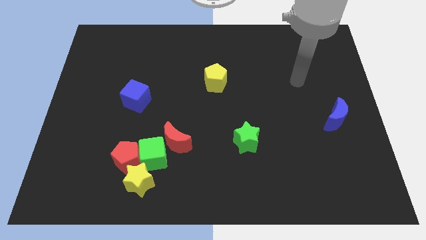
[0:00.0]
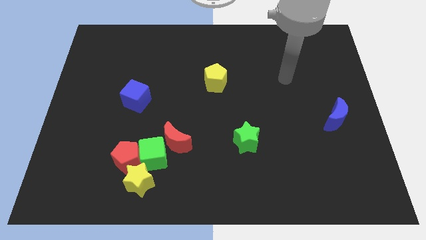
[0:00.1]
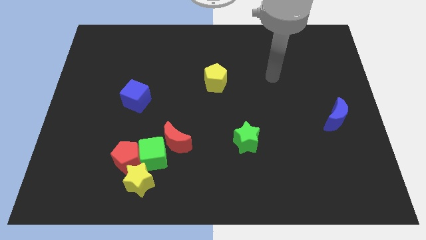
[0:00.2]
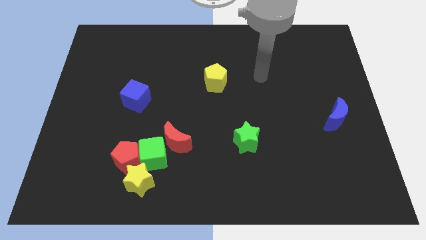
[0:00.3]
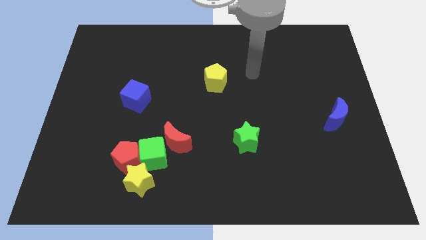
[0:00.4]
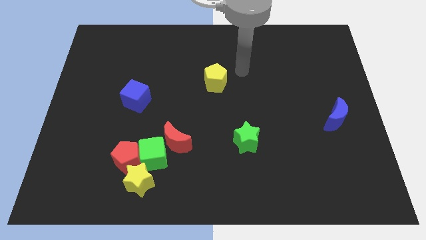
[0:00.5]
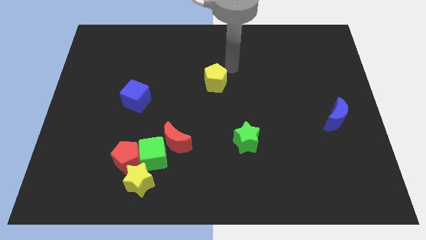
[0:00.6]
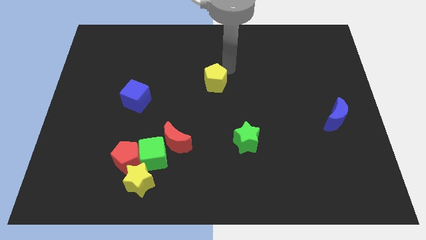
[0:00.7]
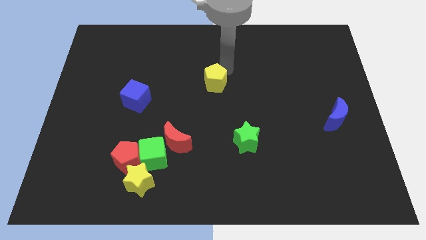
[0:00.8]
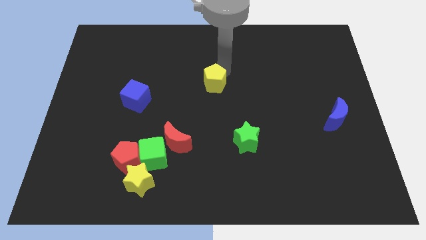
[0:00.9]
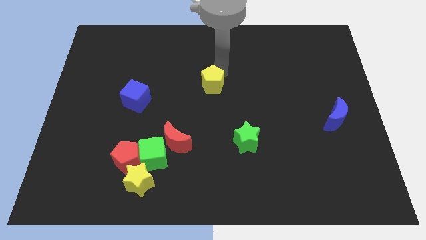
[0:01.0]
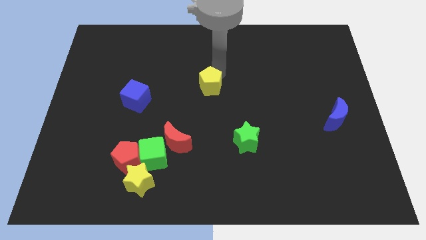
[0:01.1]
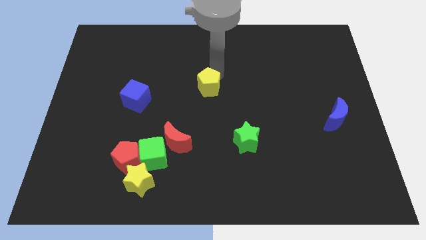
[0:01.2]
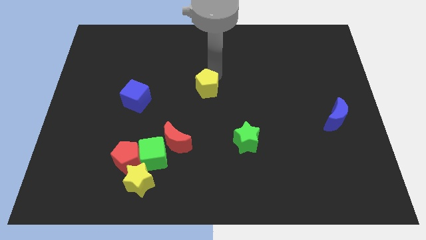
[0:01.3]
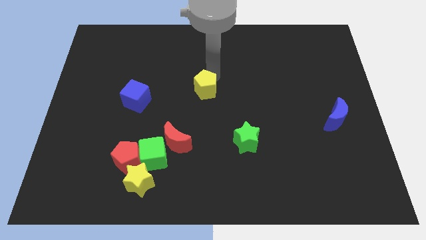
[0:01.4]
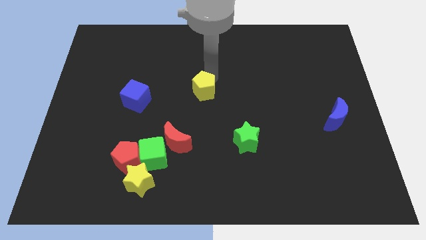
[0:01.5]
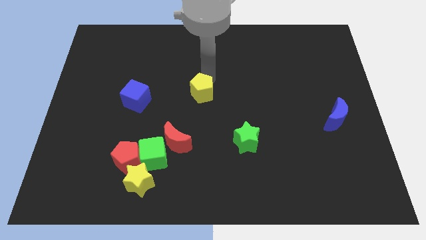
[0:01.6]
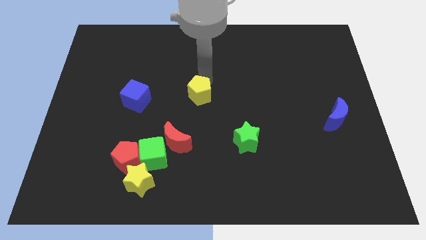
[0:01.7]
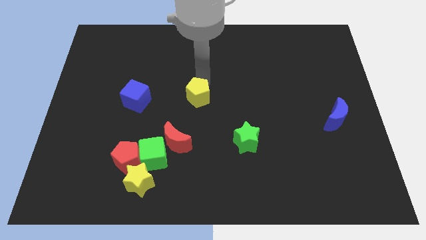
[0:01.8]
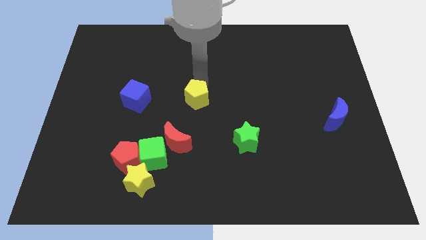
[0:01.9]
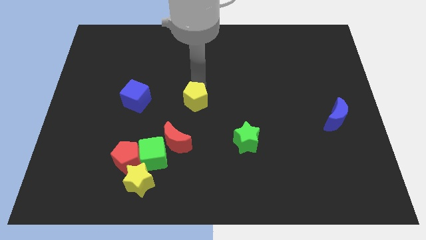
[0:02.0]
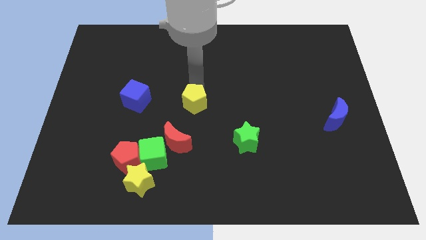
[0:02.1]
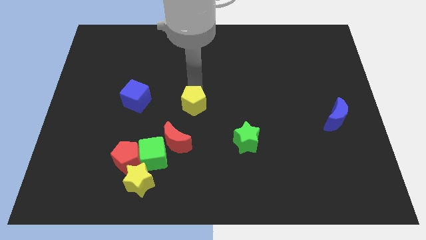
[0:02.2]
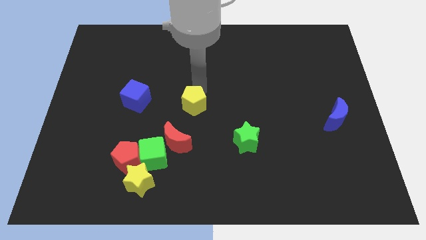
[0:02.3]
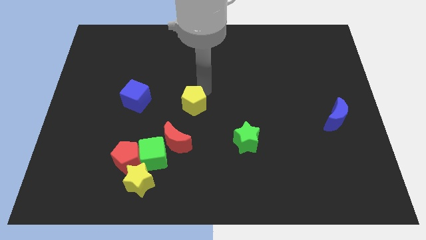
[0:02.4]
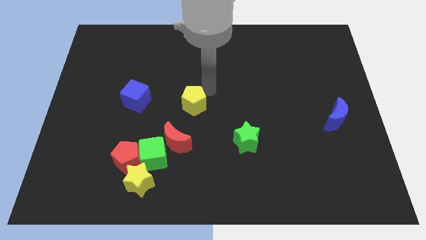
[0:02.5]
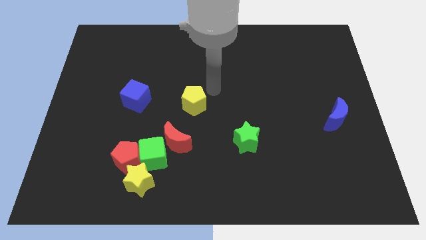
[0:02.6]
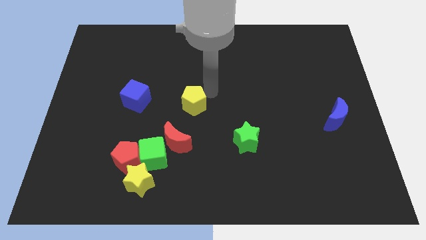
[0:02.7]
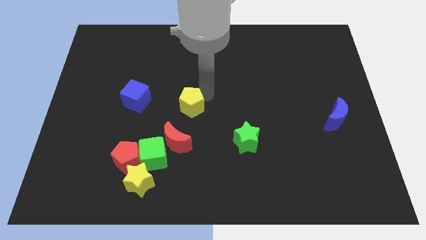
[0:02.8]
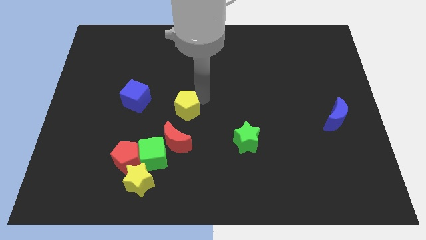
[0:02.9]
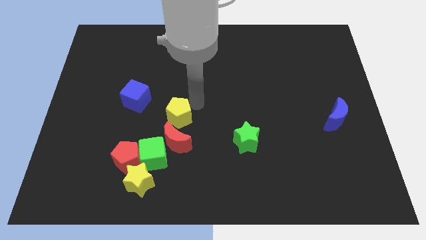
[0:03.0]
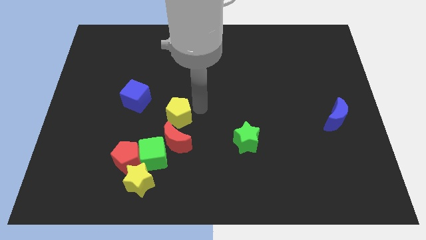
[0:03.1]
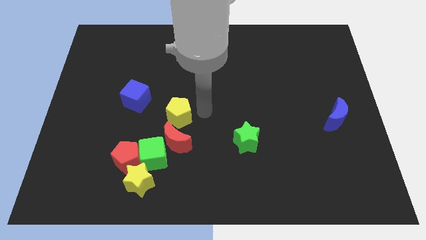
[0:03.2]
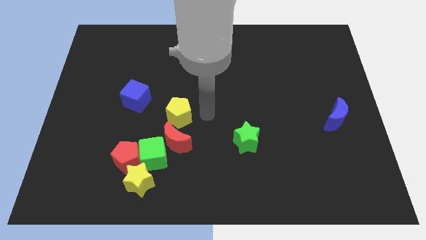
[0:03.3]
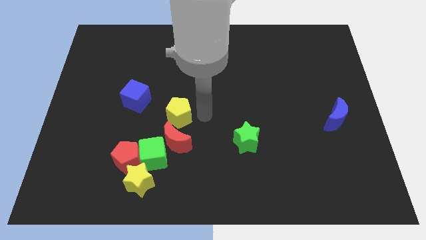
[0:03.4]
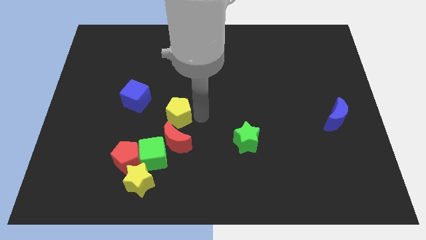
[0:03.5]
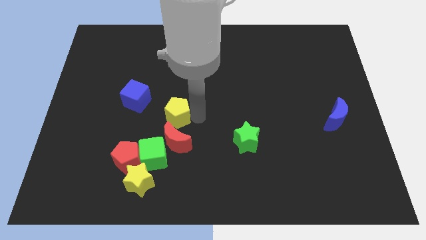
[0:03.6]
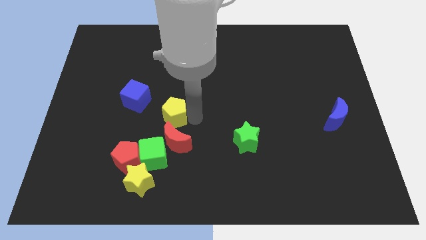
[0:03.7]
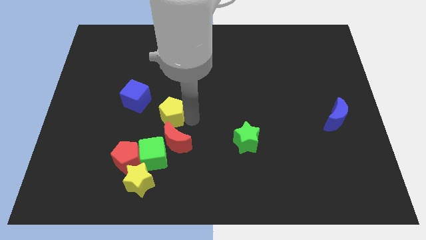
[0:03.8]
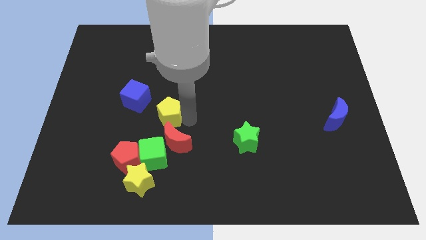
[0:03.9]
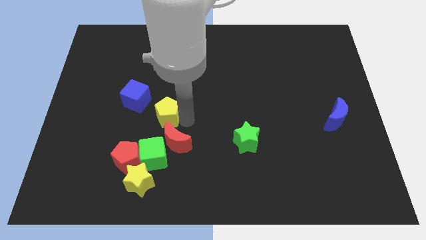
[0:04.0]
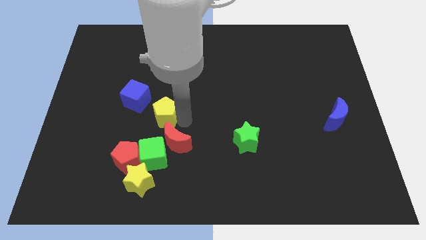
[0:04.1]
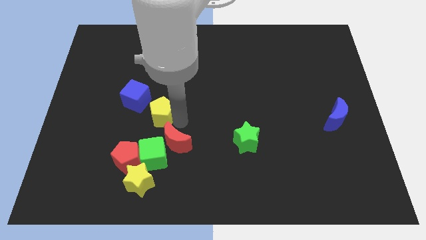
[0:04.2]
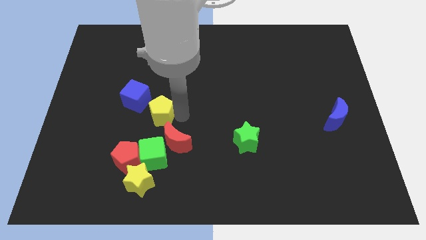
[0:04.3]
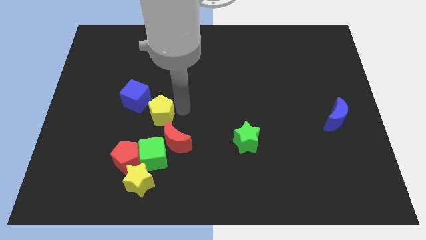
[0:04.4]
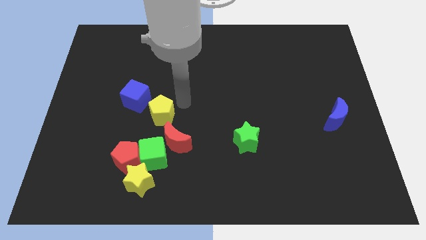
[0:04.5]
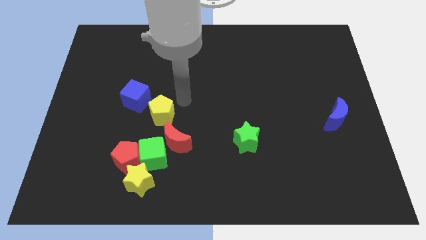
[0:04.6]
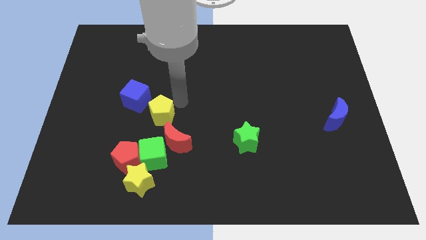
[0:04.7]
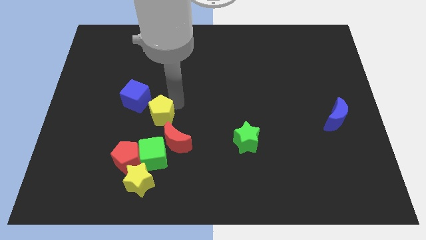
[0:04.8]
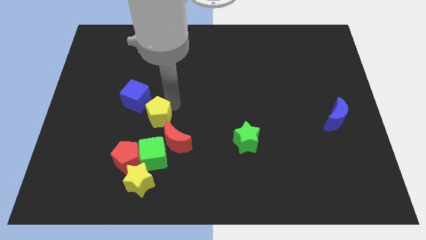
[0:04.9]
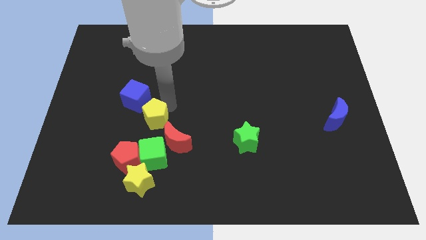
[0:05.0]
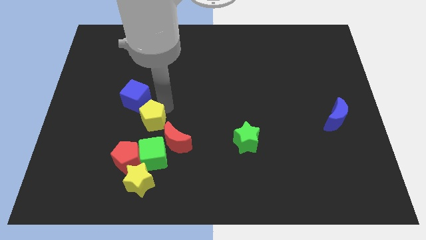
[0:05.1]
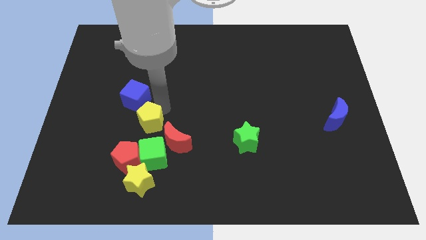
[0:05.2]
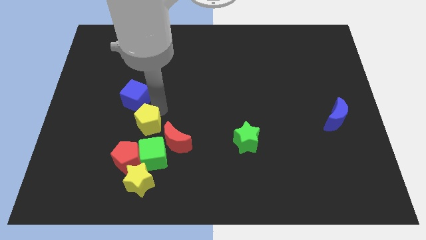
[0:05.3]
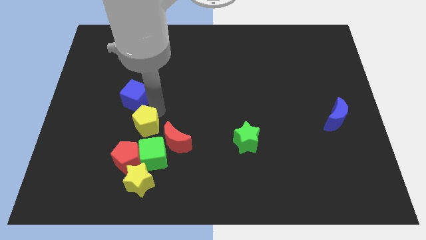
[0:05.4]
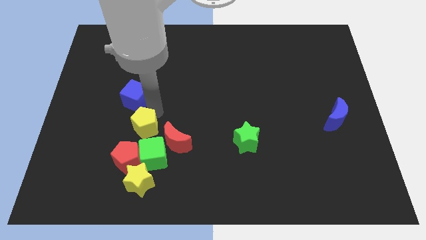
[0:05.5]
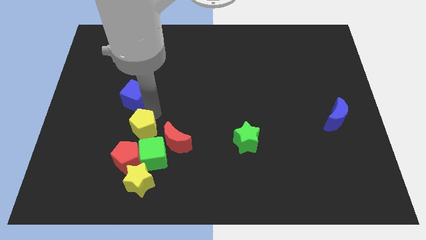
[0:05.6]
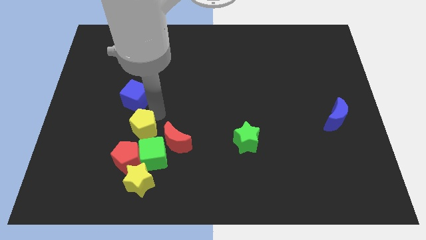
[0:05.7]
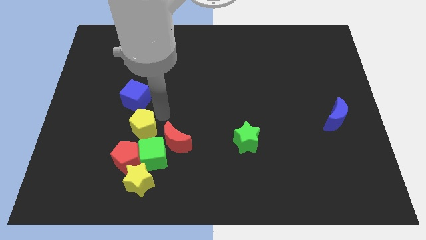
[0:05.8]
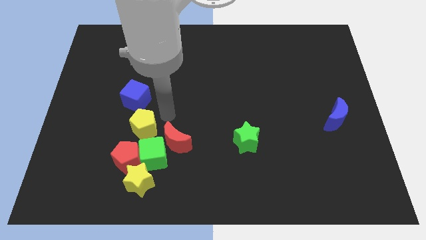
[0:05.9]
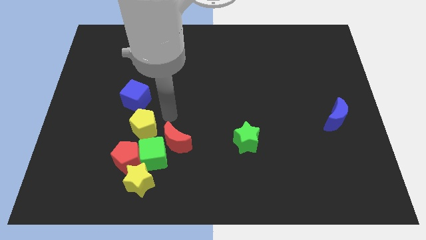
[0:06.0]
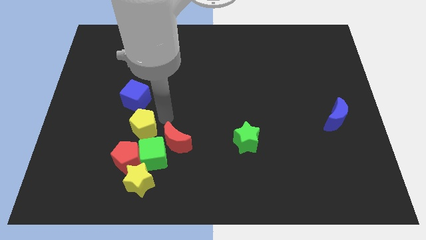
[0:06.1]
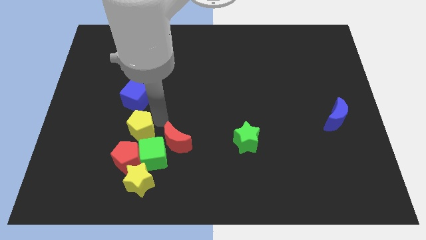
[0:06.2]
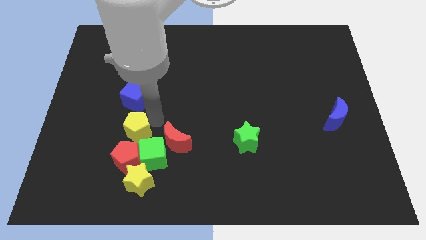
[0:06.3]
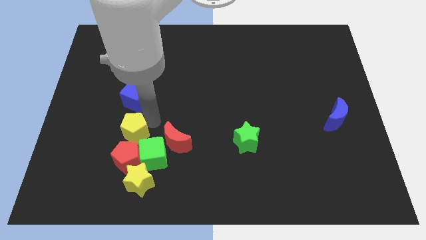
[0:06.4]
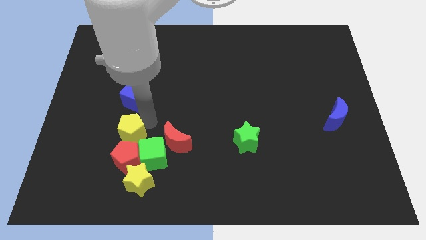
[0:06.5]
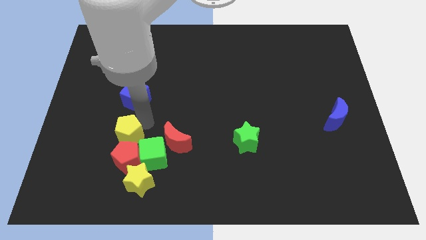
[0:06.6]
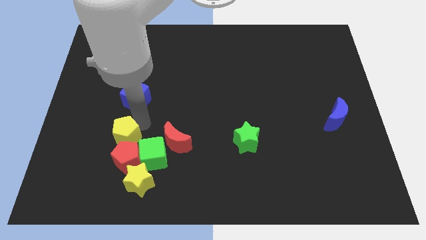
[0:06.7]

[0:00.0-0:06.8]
push the yellow pentagon next to the red pentagon

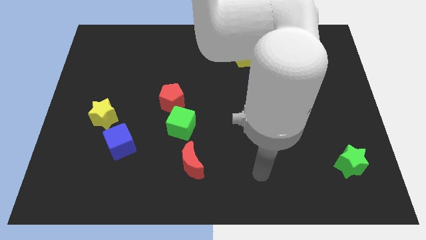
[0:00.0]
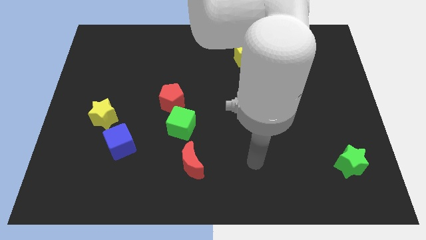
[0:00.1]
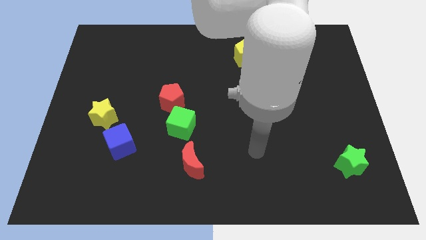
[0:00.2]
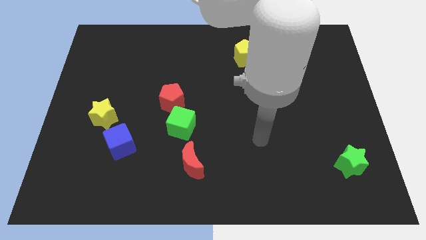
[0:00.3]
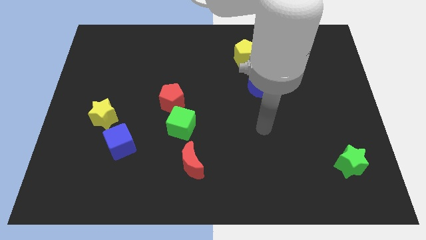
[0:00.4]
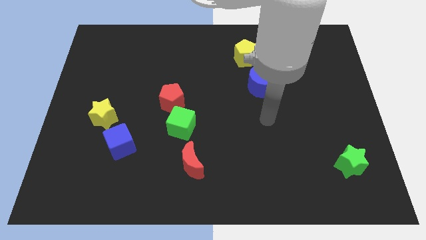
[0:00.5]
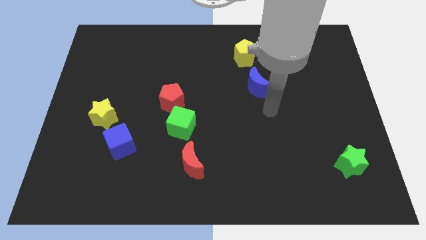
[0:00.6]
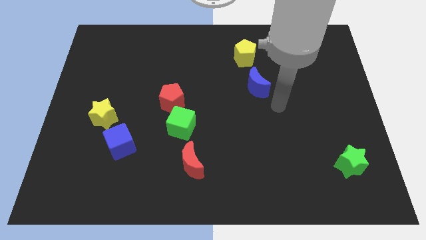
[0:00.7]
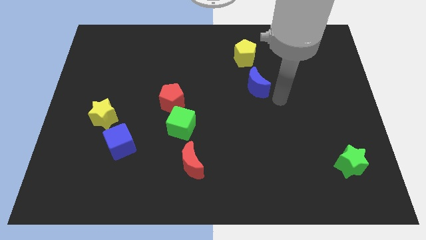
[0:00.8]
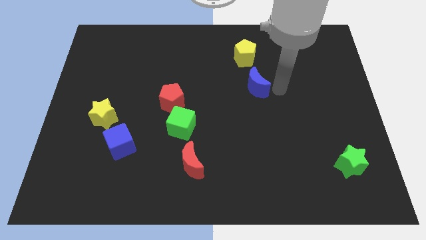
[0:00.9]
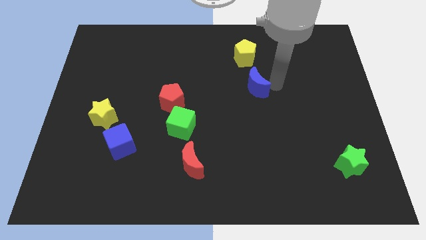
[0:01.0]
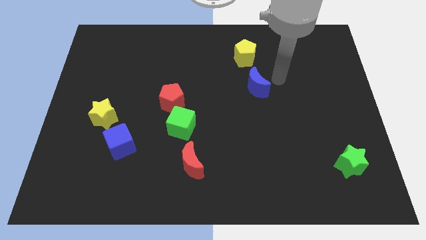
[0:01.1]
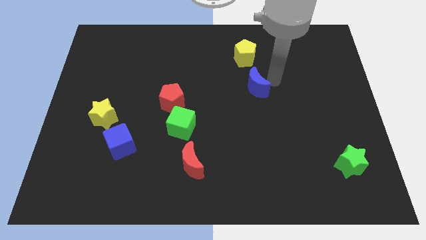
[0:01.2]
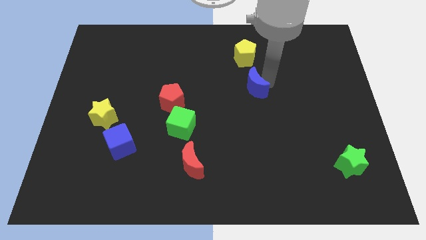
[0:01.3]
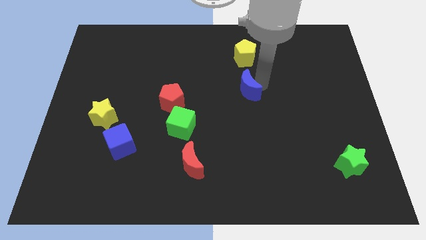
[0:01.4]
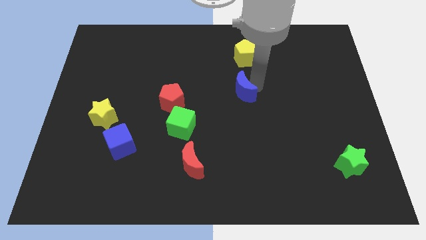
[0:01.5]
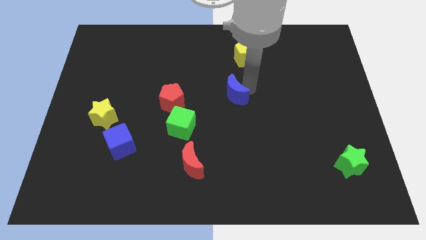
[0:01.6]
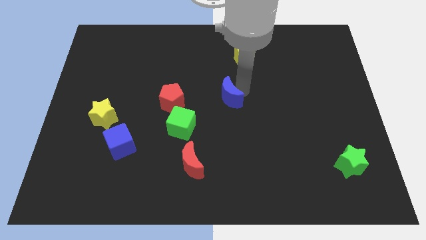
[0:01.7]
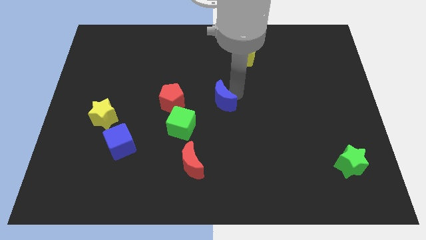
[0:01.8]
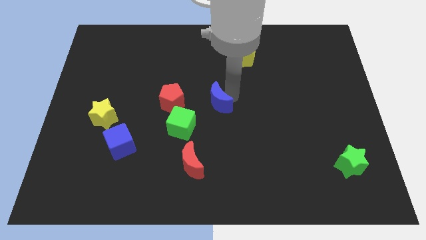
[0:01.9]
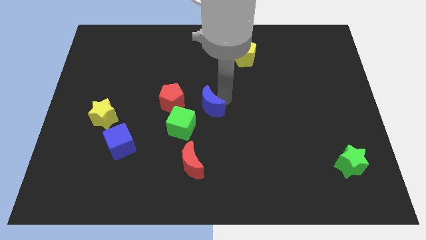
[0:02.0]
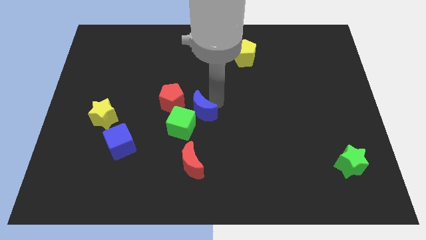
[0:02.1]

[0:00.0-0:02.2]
push the blue moon close to the green cube
